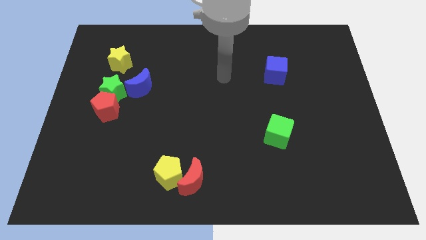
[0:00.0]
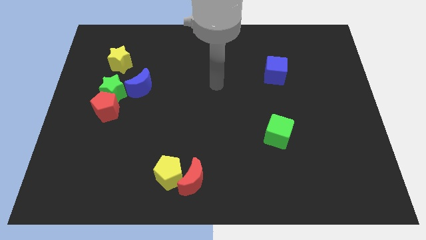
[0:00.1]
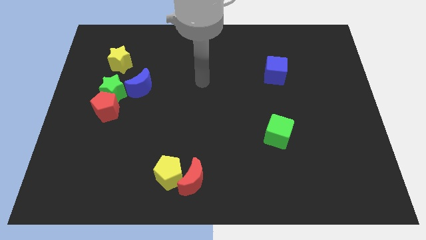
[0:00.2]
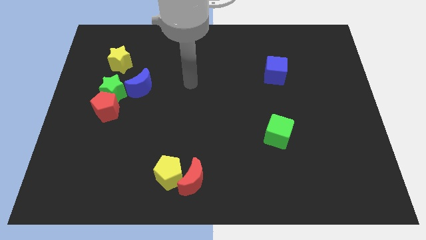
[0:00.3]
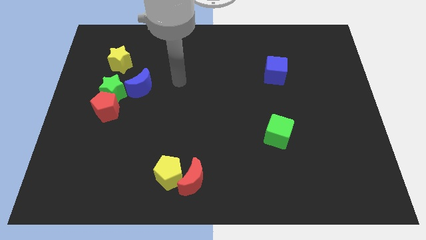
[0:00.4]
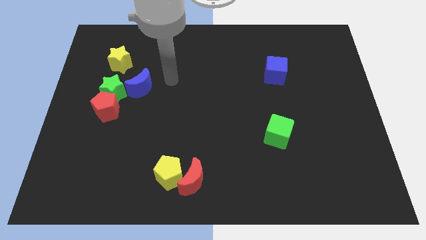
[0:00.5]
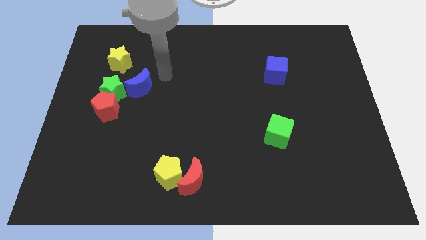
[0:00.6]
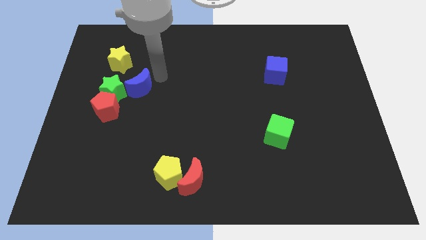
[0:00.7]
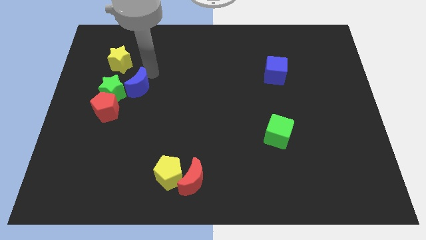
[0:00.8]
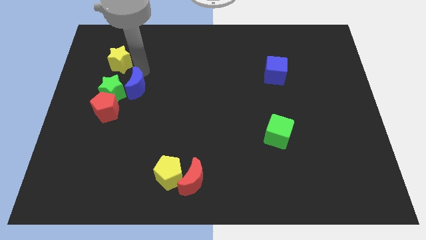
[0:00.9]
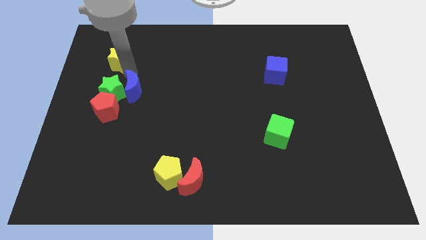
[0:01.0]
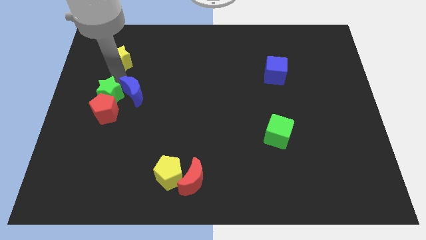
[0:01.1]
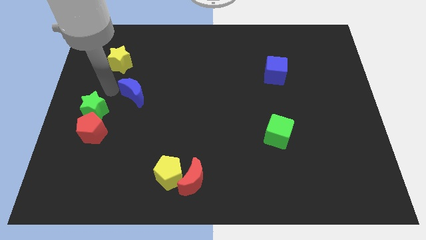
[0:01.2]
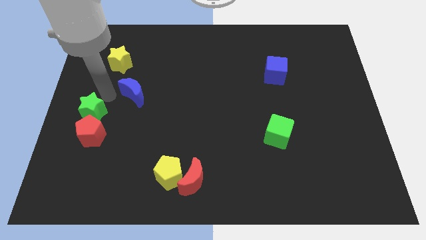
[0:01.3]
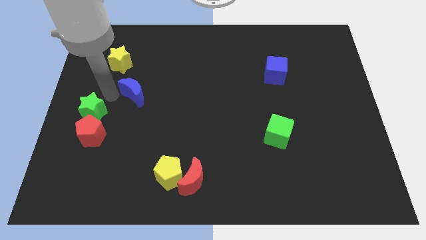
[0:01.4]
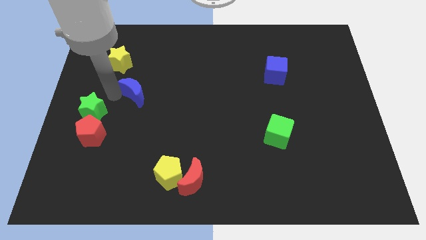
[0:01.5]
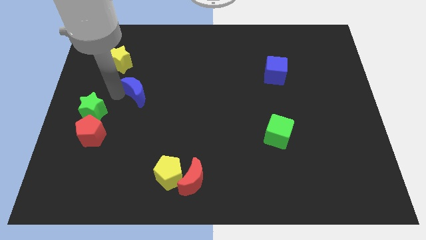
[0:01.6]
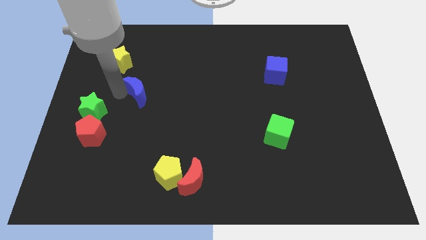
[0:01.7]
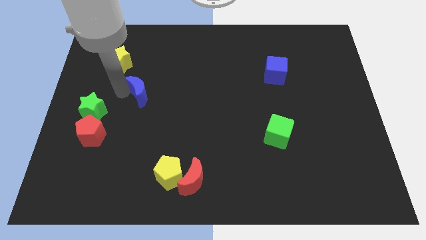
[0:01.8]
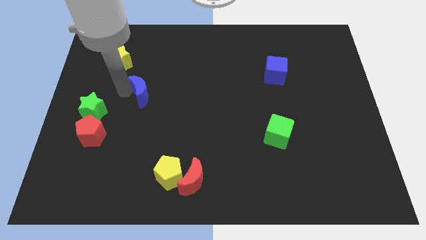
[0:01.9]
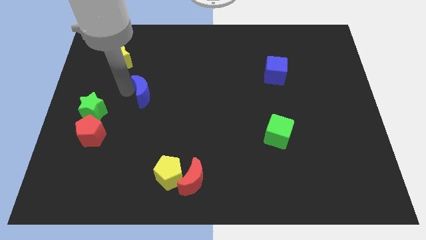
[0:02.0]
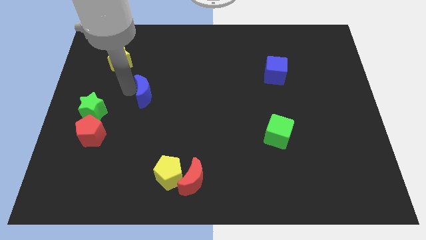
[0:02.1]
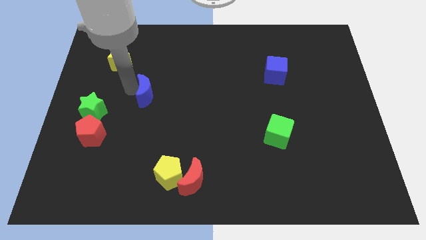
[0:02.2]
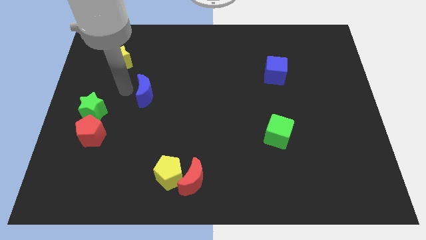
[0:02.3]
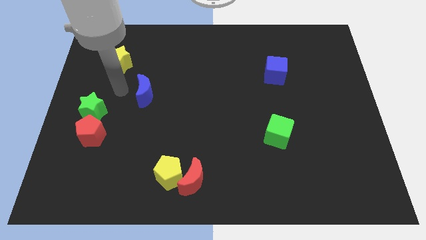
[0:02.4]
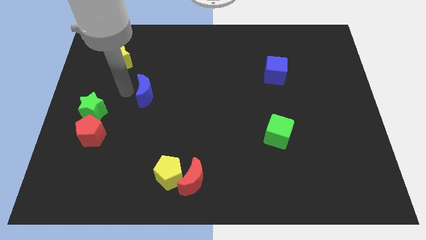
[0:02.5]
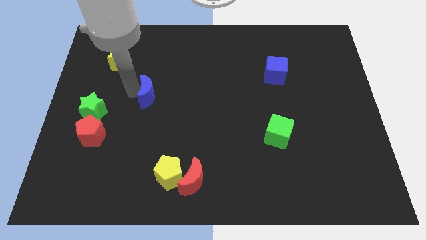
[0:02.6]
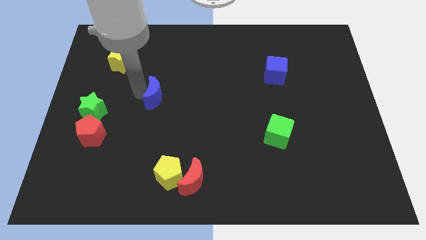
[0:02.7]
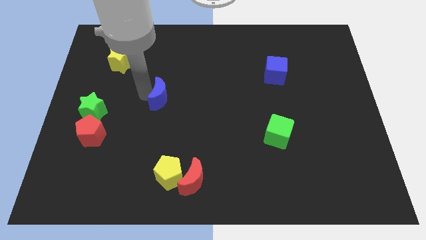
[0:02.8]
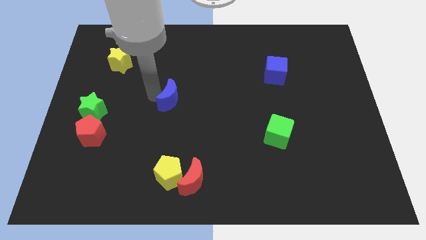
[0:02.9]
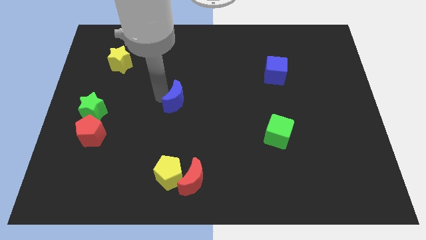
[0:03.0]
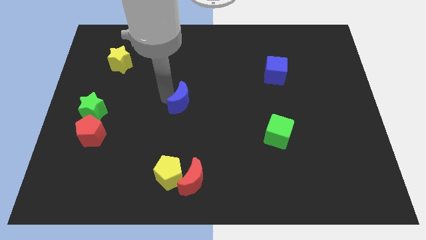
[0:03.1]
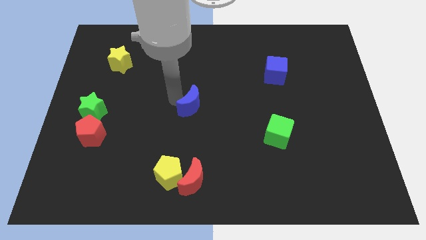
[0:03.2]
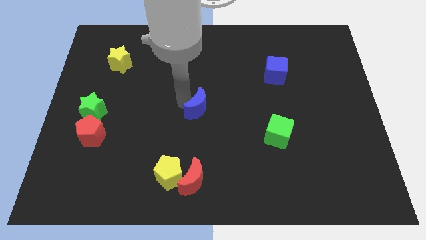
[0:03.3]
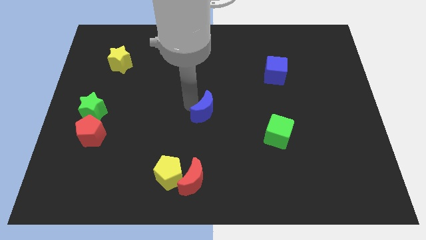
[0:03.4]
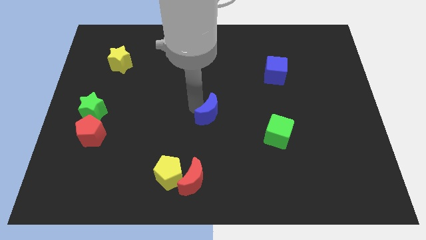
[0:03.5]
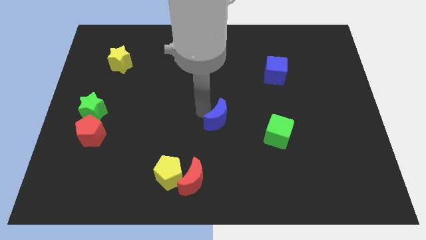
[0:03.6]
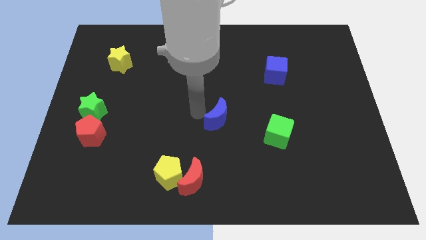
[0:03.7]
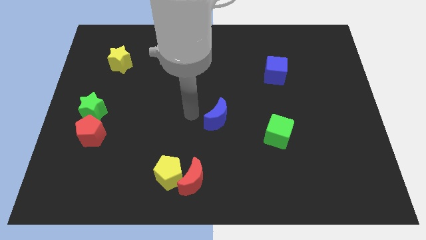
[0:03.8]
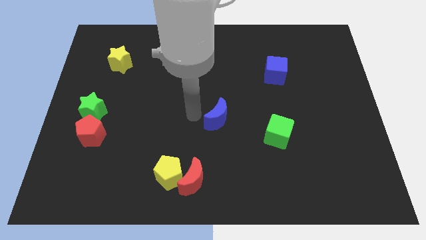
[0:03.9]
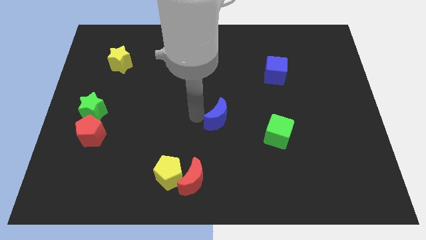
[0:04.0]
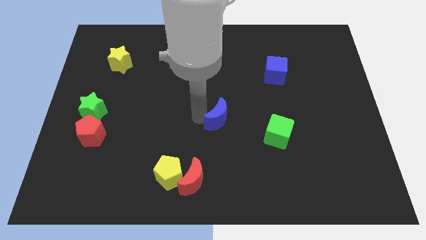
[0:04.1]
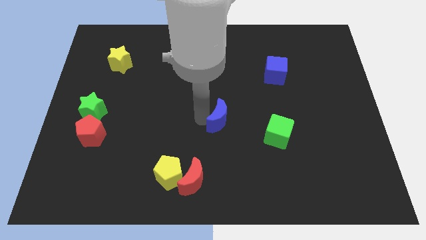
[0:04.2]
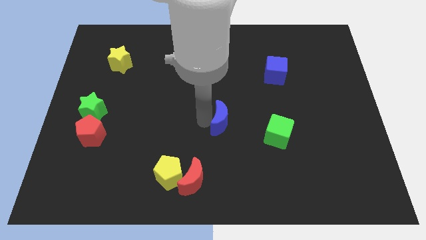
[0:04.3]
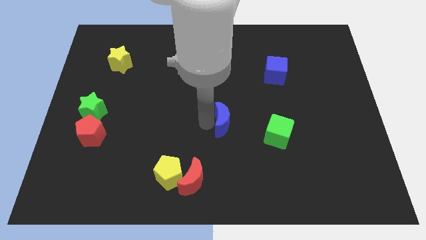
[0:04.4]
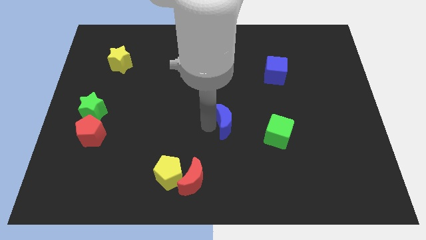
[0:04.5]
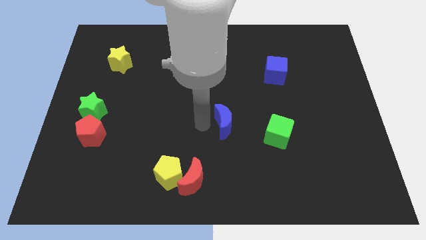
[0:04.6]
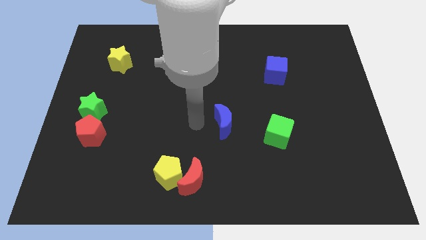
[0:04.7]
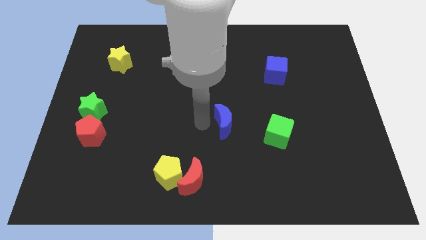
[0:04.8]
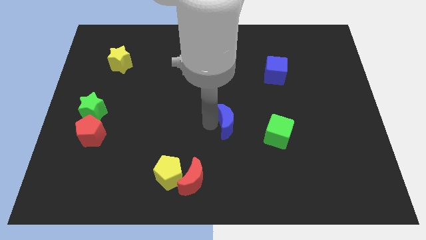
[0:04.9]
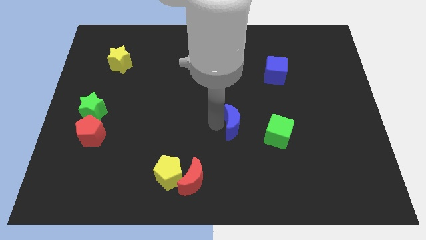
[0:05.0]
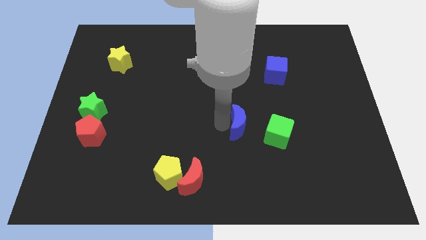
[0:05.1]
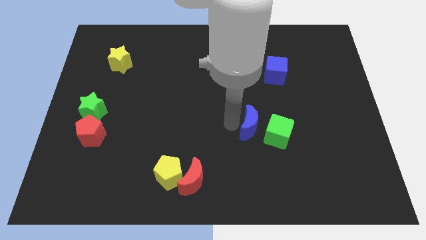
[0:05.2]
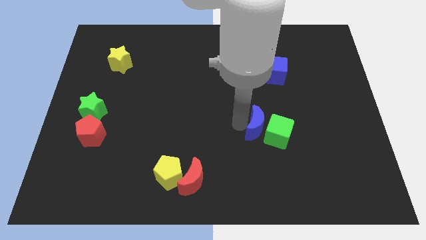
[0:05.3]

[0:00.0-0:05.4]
put the blue moon towards the green cube

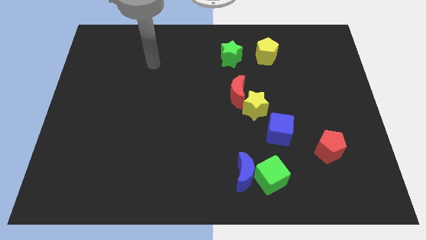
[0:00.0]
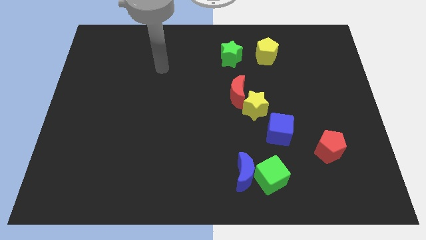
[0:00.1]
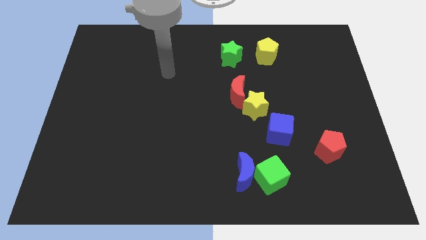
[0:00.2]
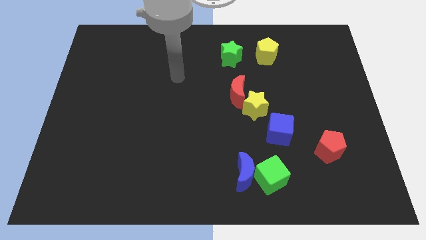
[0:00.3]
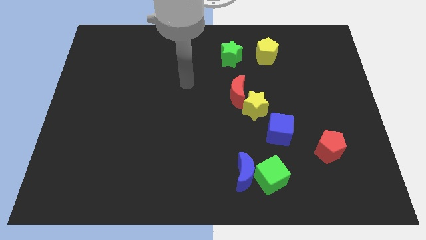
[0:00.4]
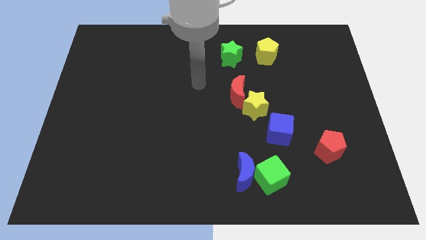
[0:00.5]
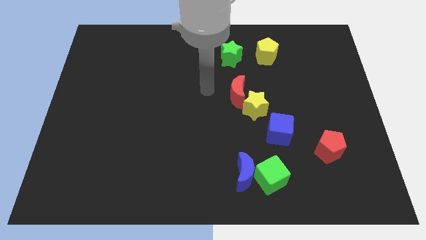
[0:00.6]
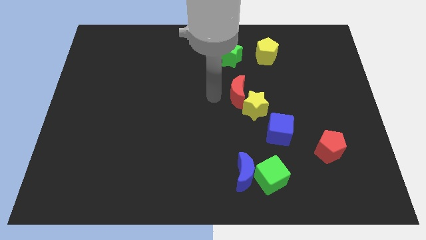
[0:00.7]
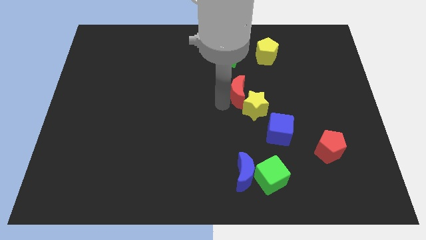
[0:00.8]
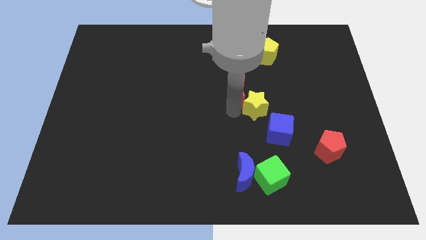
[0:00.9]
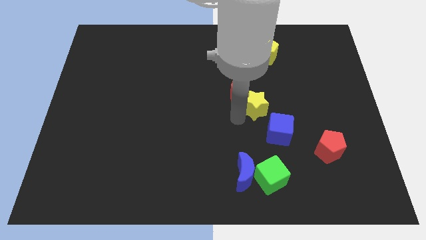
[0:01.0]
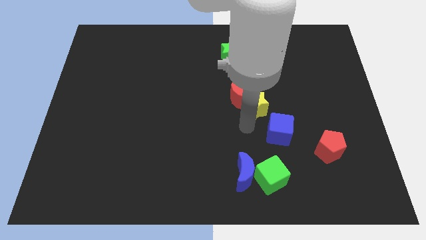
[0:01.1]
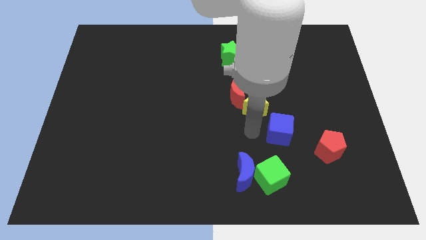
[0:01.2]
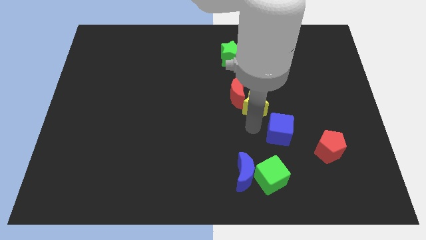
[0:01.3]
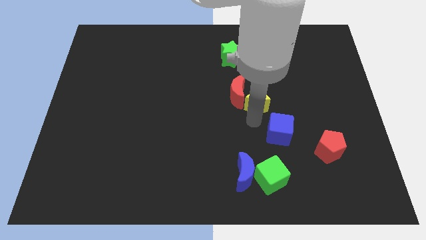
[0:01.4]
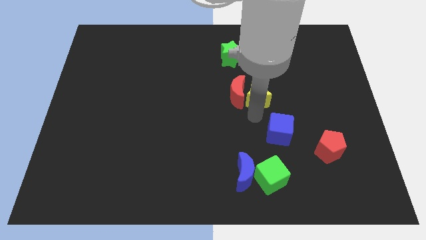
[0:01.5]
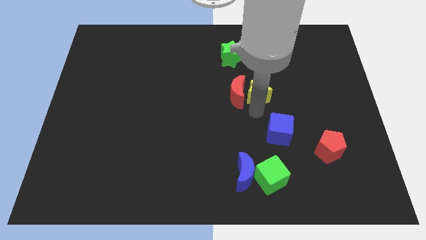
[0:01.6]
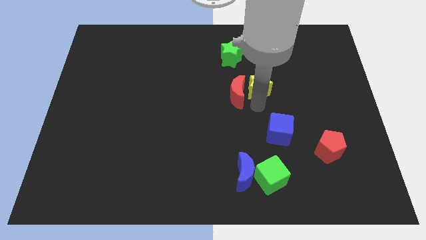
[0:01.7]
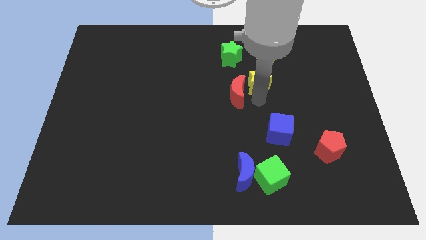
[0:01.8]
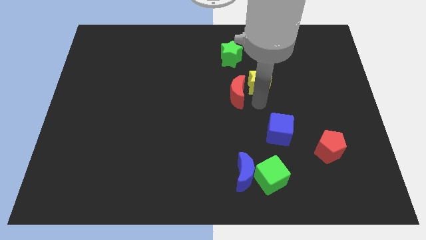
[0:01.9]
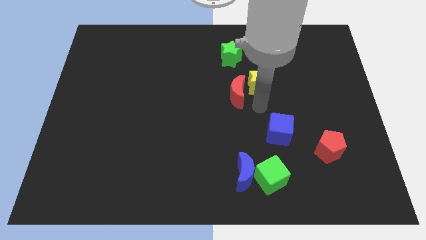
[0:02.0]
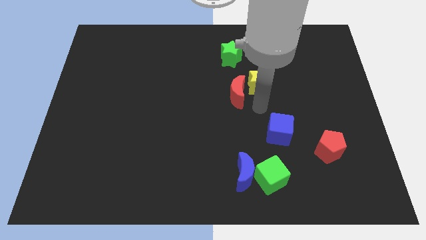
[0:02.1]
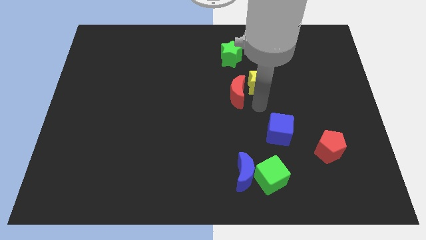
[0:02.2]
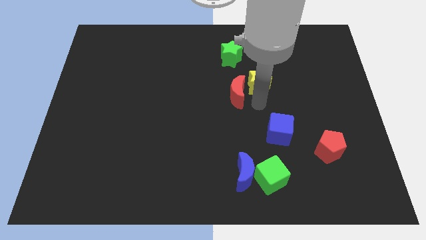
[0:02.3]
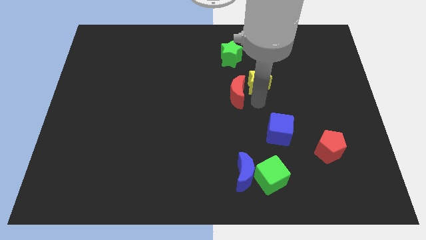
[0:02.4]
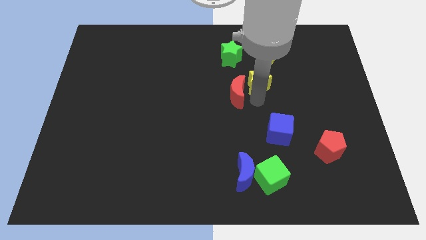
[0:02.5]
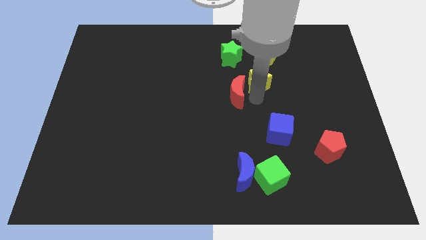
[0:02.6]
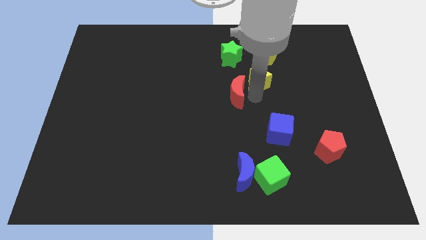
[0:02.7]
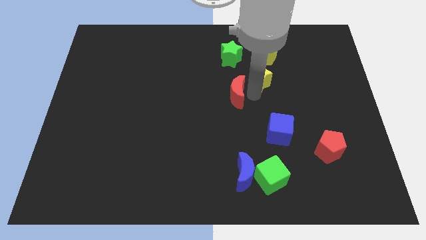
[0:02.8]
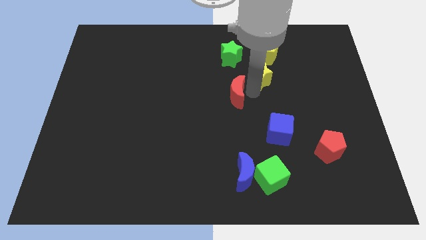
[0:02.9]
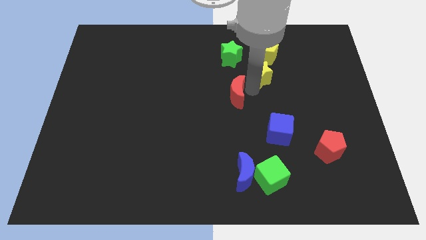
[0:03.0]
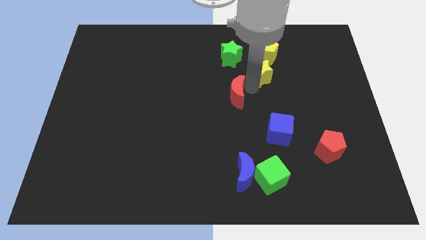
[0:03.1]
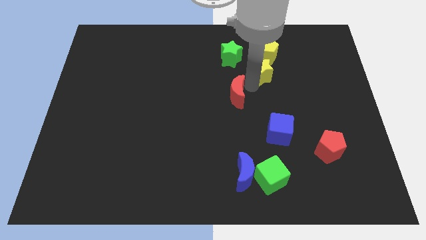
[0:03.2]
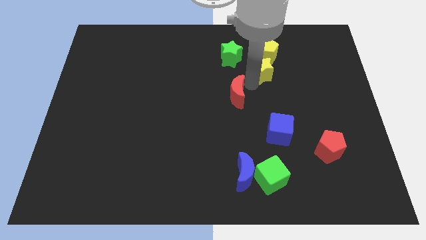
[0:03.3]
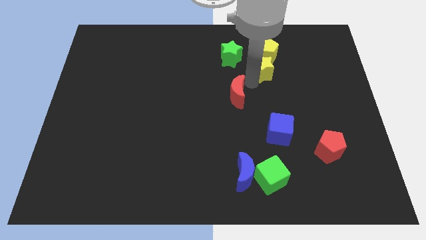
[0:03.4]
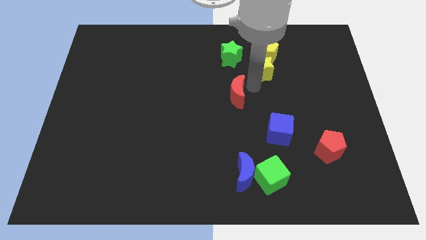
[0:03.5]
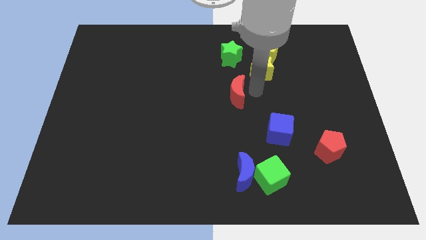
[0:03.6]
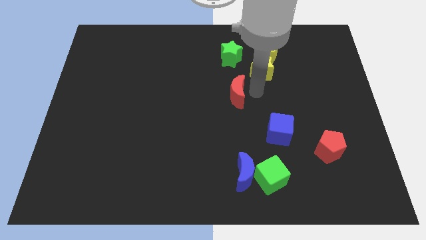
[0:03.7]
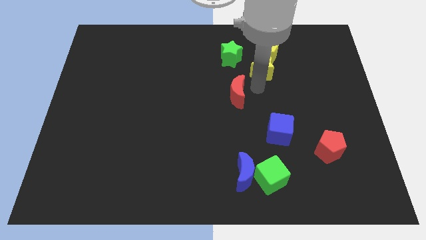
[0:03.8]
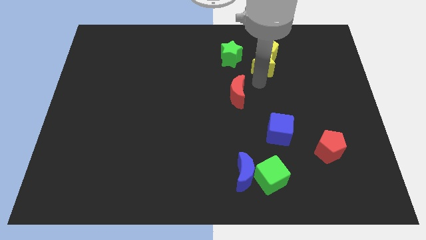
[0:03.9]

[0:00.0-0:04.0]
move the yellow star close to the yellow pentagon
